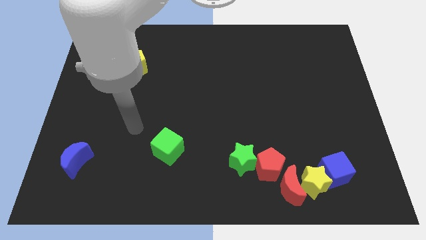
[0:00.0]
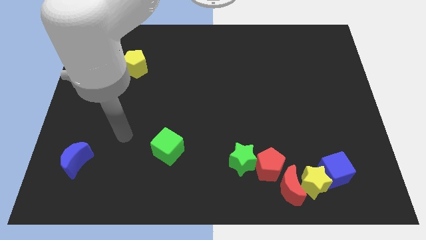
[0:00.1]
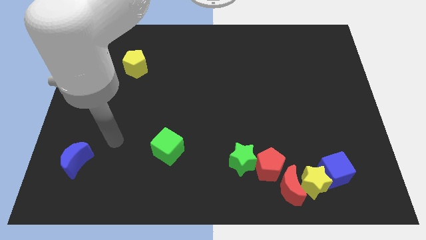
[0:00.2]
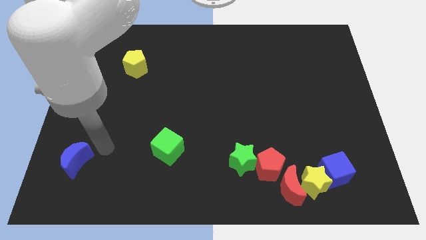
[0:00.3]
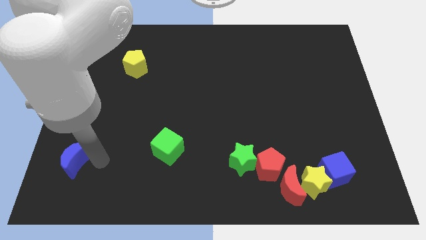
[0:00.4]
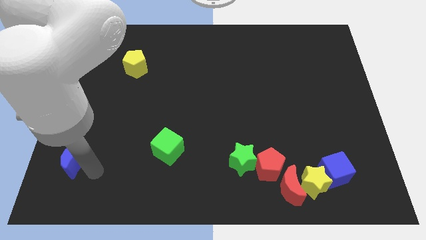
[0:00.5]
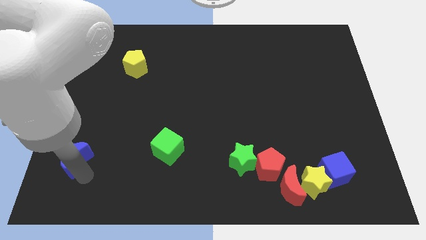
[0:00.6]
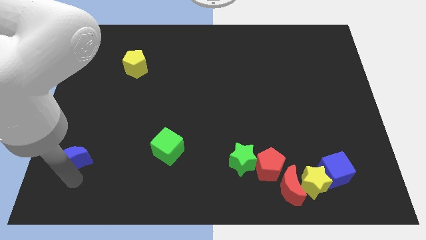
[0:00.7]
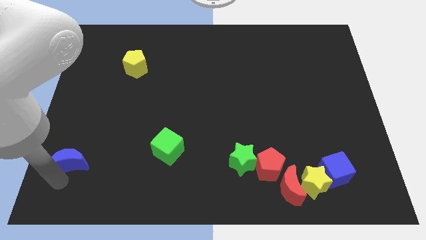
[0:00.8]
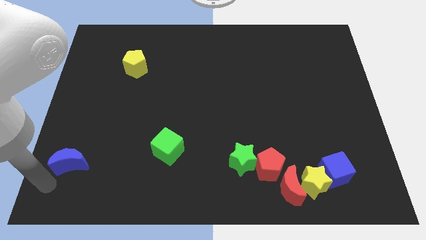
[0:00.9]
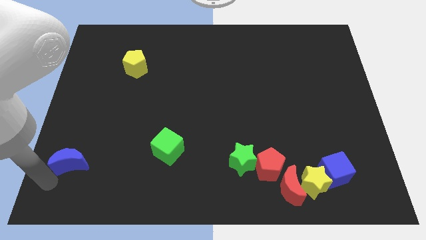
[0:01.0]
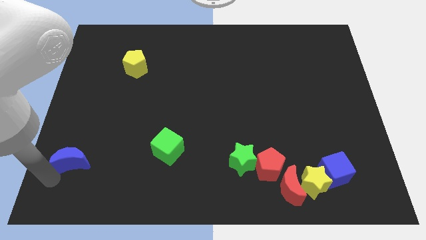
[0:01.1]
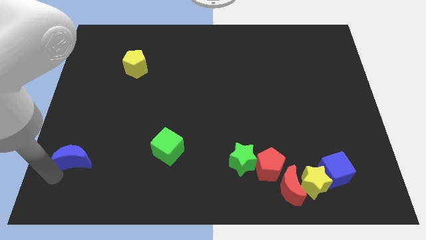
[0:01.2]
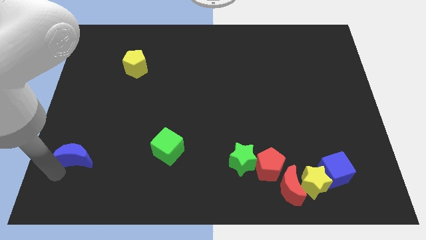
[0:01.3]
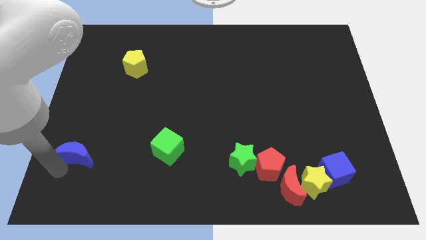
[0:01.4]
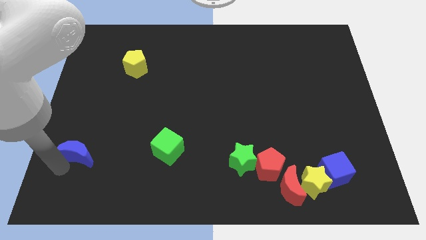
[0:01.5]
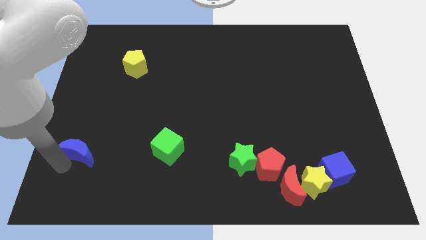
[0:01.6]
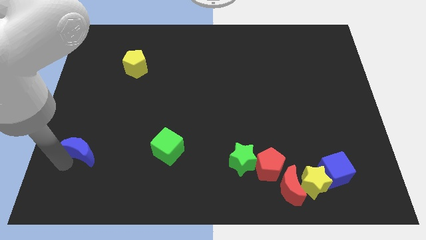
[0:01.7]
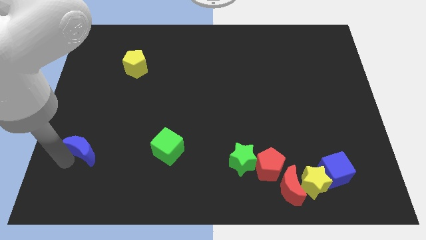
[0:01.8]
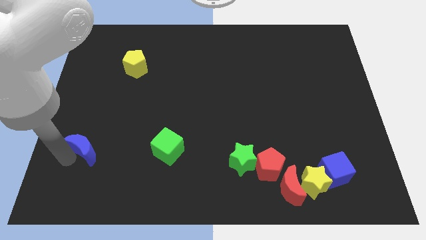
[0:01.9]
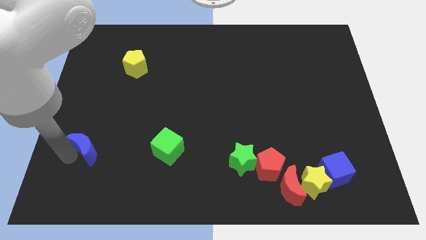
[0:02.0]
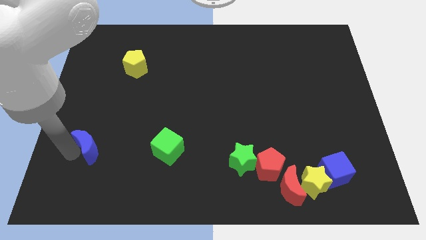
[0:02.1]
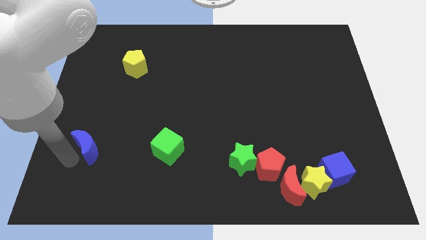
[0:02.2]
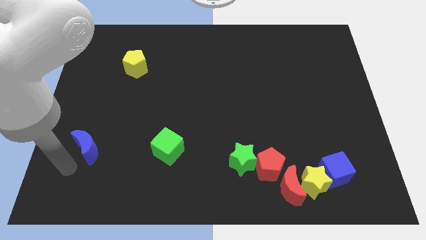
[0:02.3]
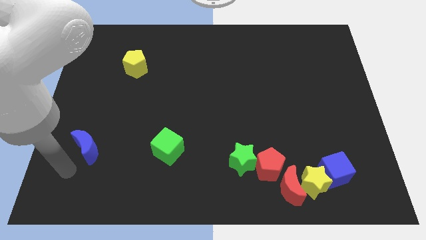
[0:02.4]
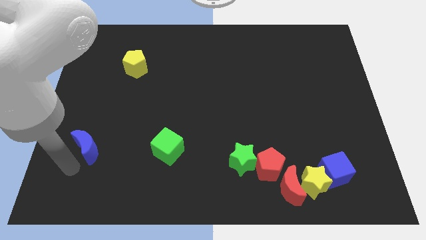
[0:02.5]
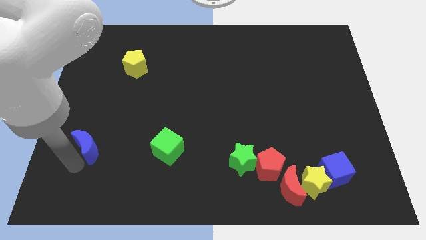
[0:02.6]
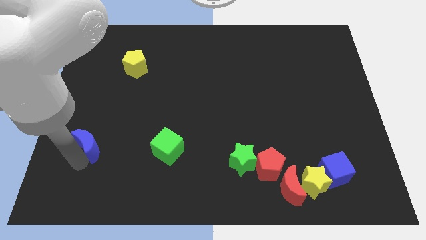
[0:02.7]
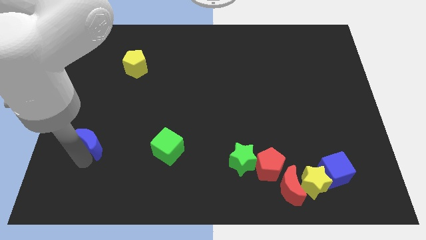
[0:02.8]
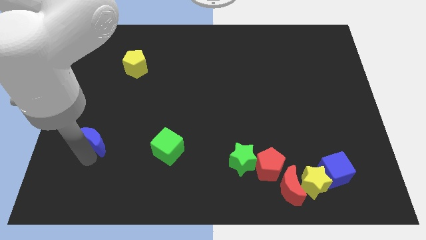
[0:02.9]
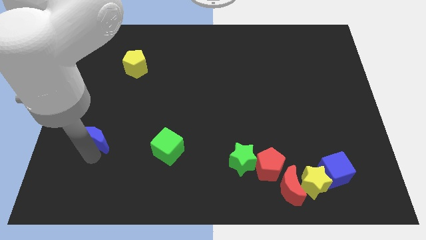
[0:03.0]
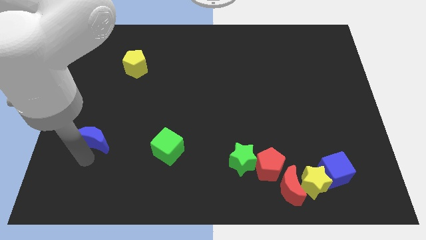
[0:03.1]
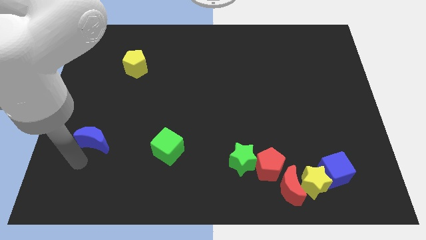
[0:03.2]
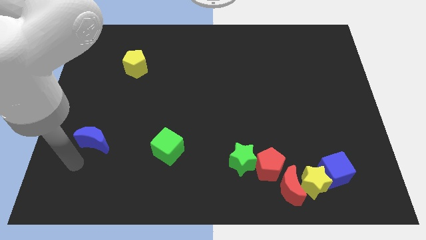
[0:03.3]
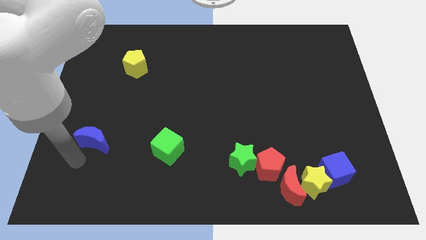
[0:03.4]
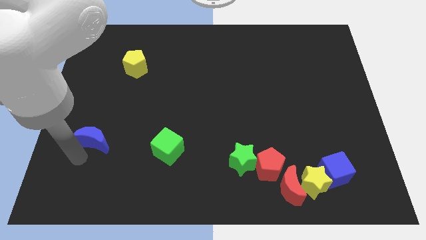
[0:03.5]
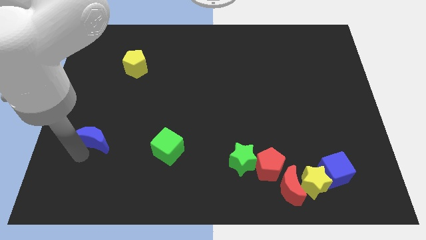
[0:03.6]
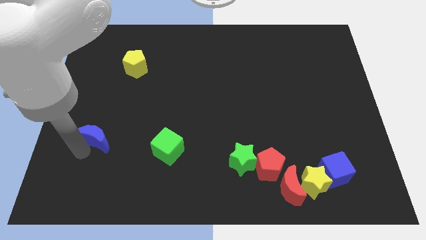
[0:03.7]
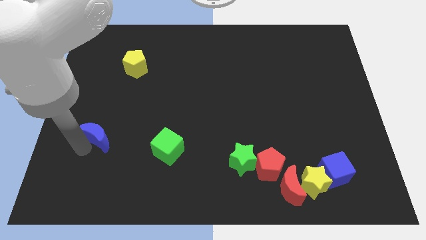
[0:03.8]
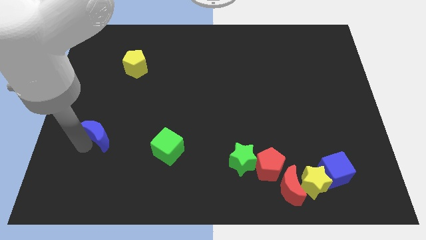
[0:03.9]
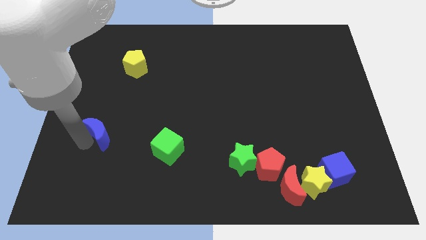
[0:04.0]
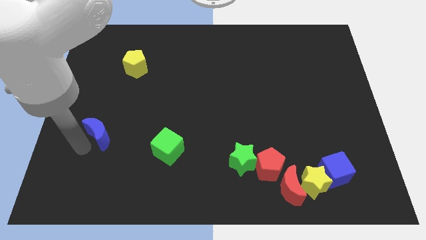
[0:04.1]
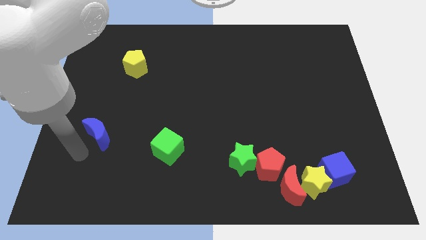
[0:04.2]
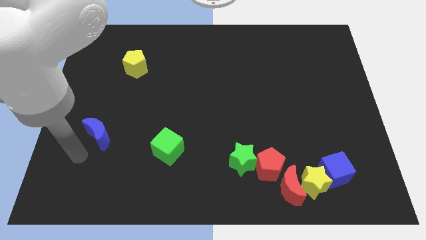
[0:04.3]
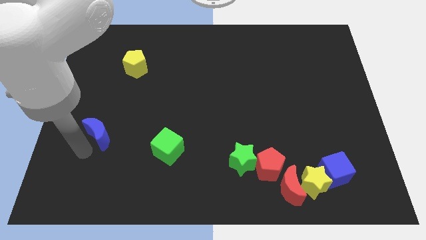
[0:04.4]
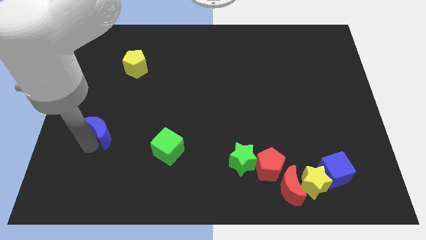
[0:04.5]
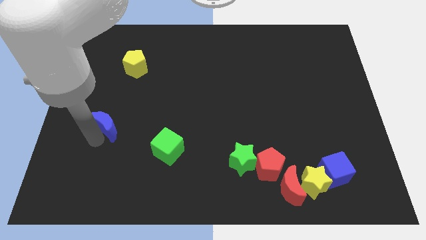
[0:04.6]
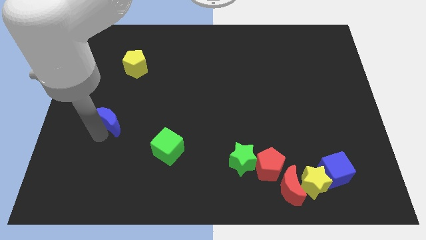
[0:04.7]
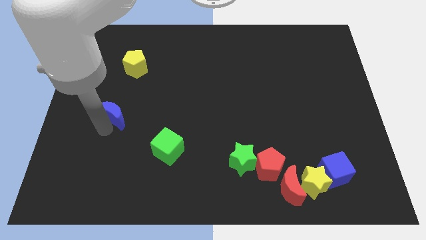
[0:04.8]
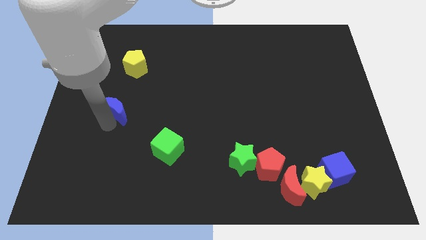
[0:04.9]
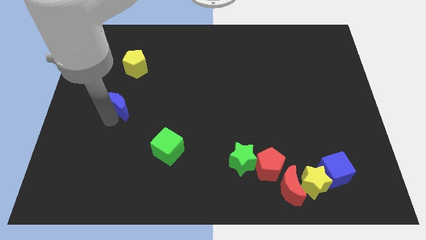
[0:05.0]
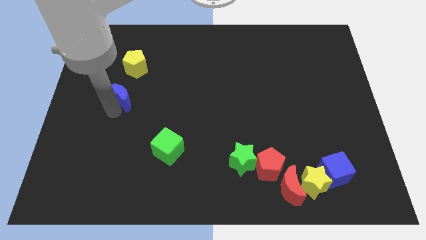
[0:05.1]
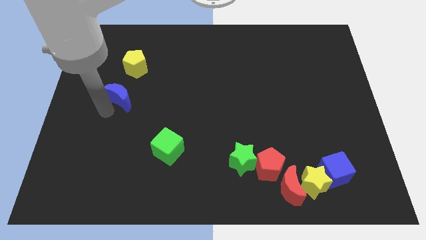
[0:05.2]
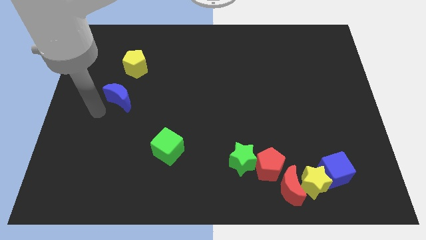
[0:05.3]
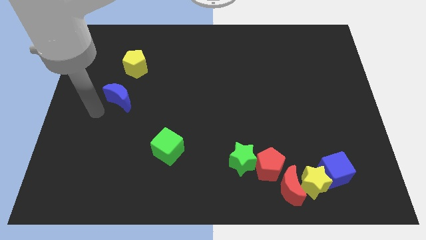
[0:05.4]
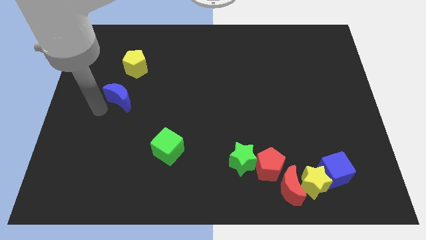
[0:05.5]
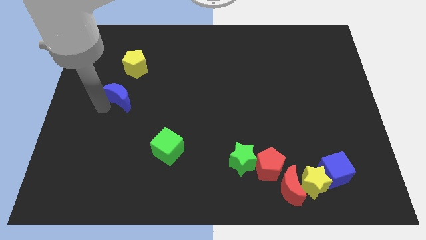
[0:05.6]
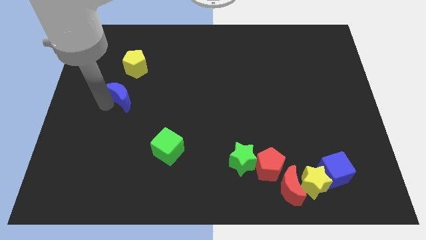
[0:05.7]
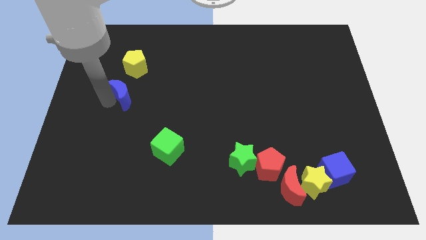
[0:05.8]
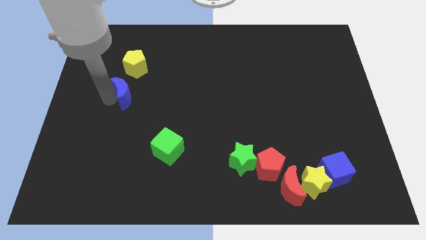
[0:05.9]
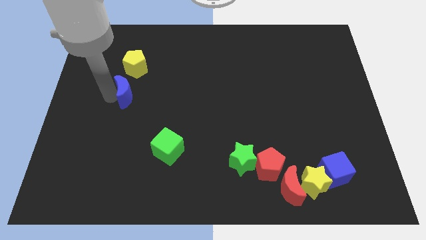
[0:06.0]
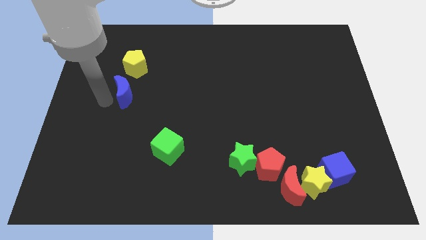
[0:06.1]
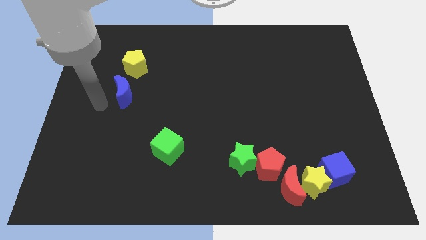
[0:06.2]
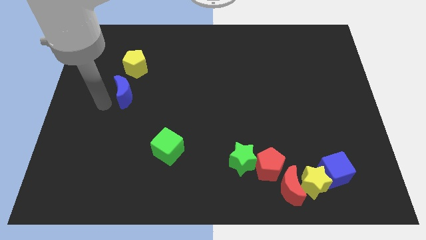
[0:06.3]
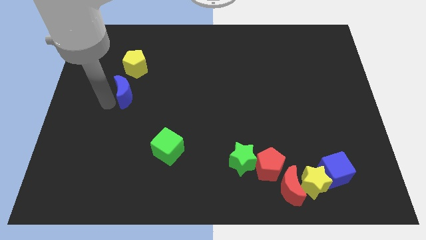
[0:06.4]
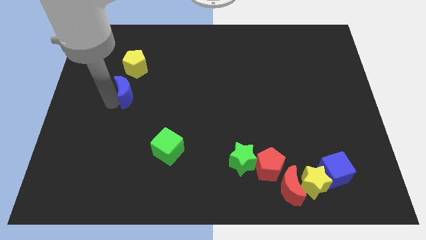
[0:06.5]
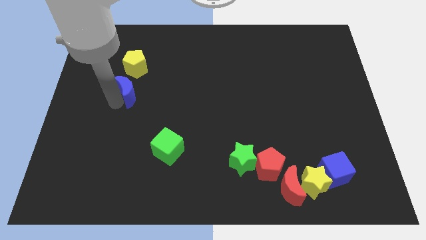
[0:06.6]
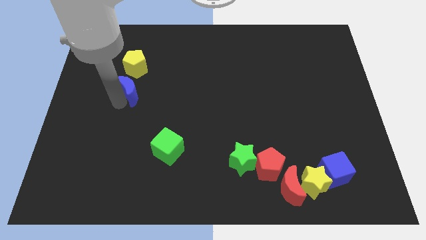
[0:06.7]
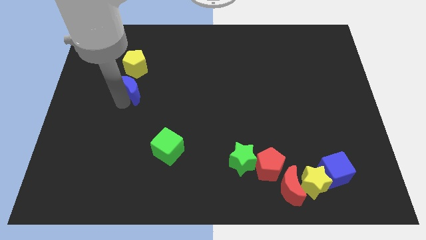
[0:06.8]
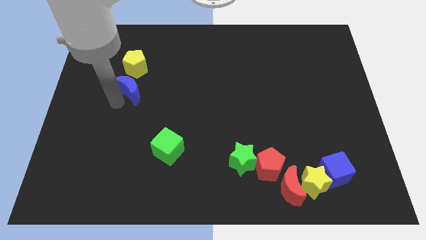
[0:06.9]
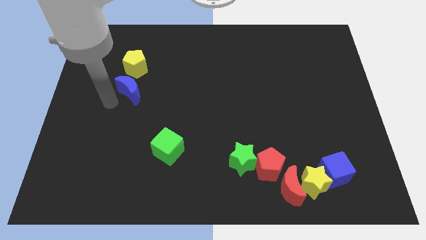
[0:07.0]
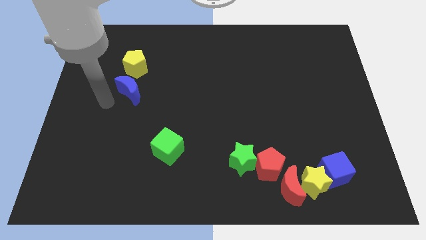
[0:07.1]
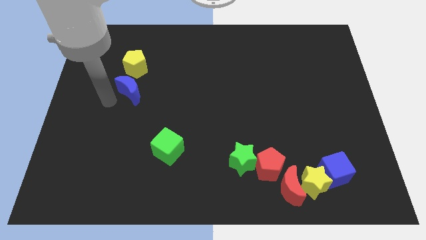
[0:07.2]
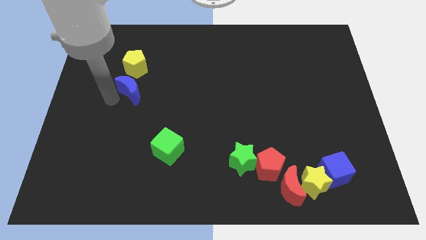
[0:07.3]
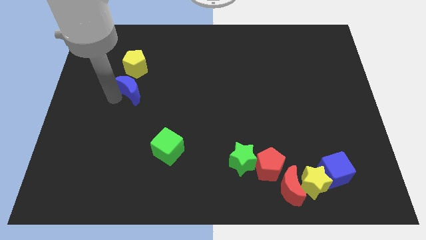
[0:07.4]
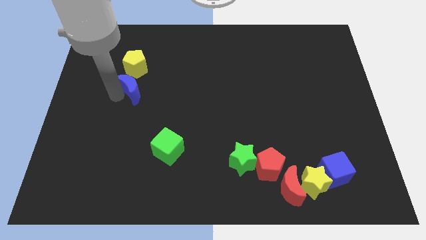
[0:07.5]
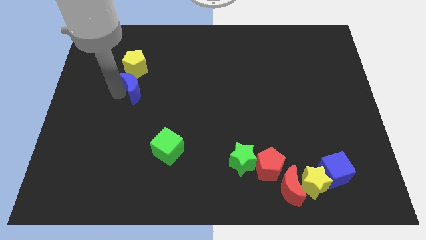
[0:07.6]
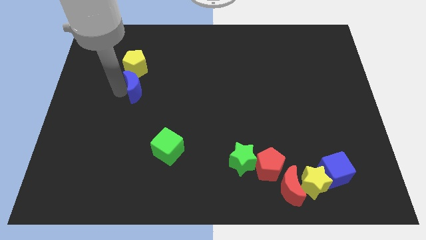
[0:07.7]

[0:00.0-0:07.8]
put the blue moon to the bottom right side of the yellow pentagon
